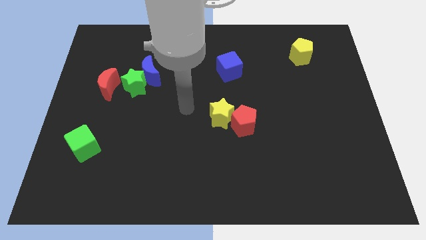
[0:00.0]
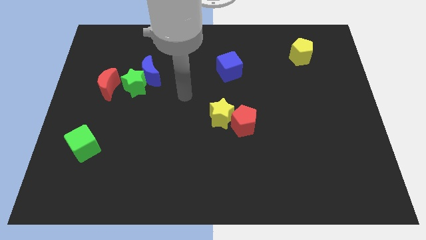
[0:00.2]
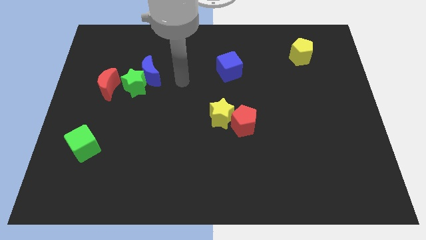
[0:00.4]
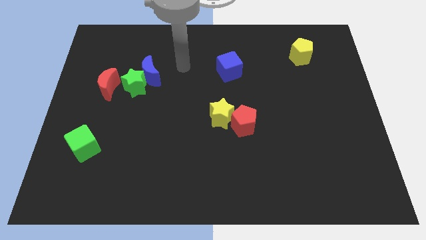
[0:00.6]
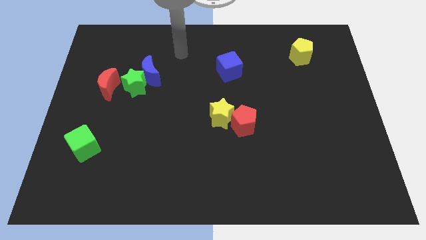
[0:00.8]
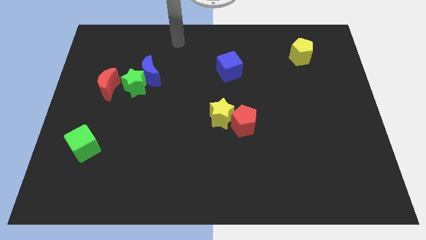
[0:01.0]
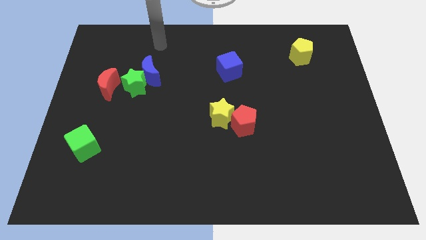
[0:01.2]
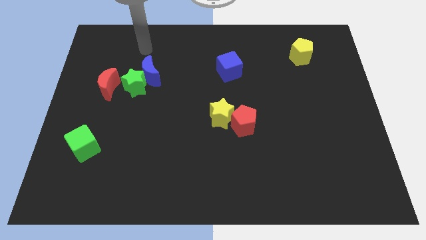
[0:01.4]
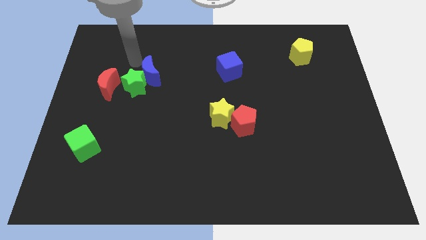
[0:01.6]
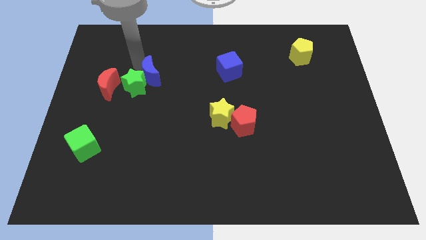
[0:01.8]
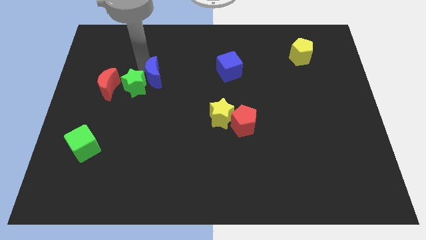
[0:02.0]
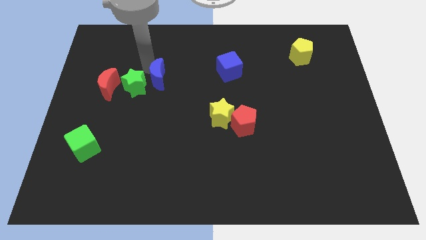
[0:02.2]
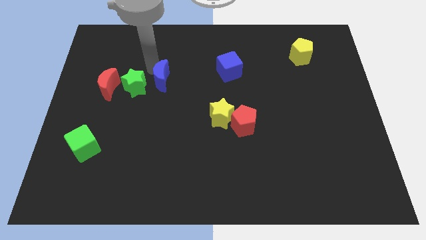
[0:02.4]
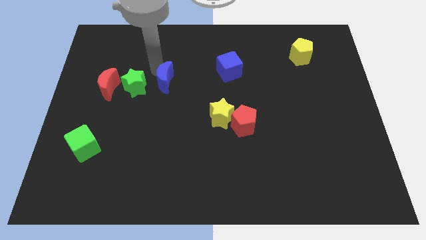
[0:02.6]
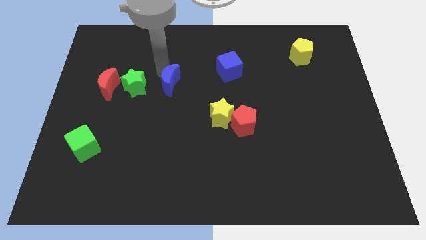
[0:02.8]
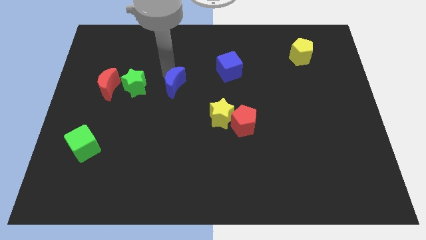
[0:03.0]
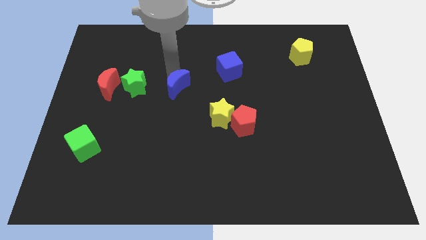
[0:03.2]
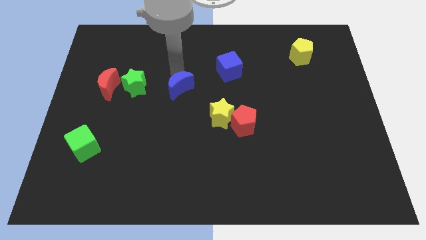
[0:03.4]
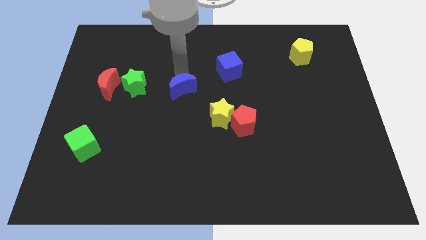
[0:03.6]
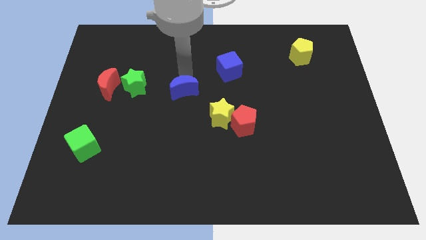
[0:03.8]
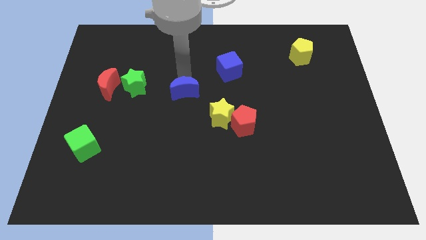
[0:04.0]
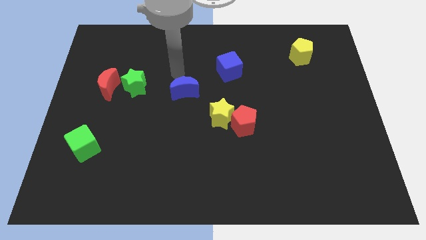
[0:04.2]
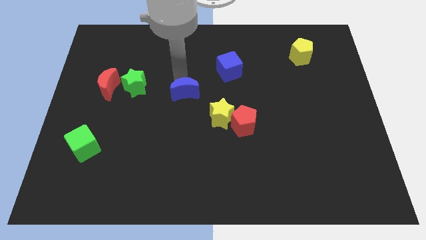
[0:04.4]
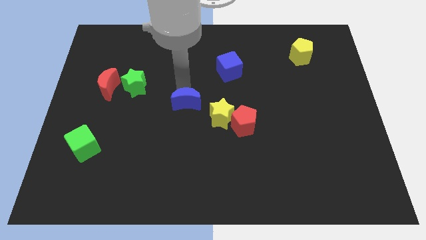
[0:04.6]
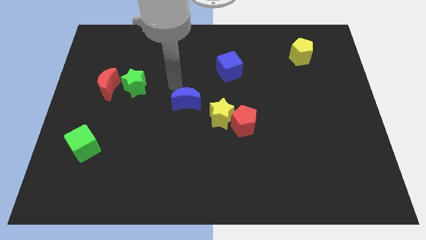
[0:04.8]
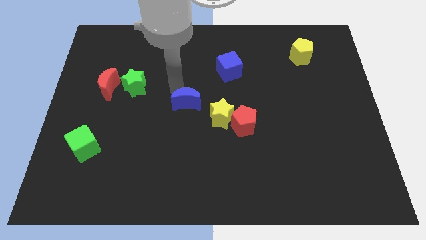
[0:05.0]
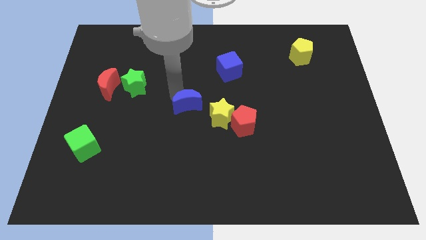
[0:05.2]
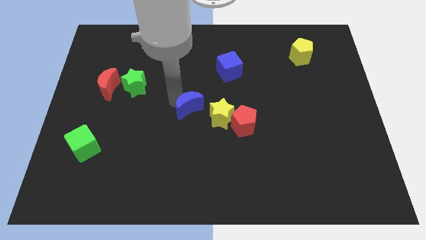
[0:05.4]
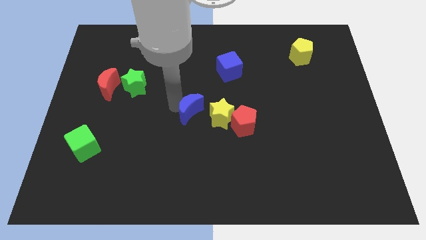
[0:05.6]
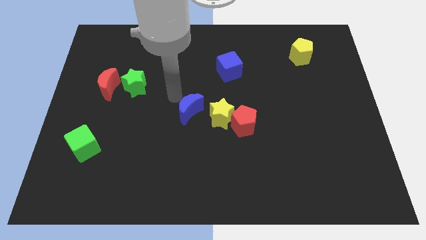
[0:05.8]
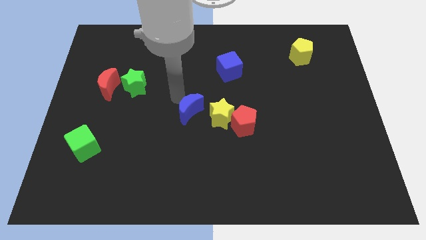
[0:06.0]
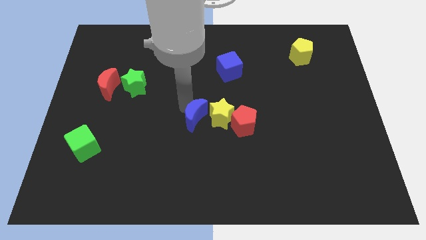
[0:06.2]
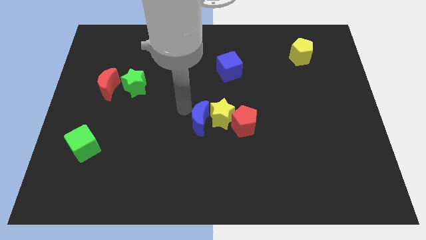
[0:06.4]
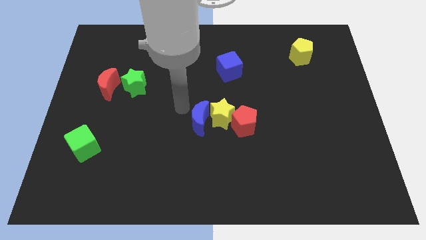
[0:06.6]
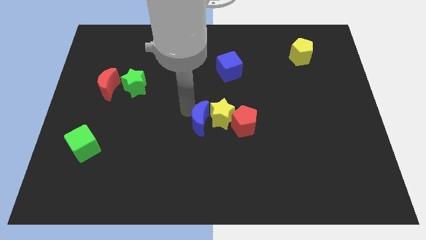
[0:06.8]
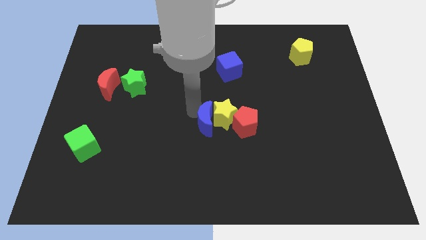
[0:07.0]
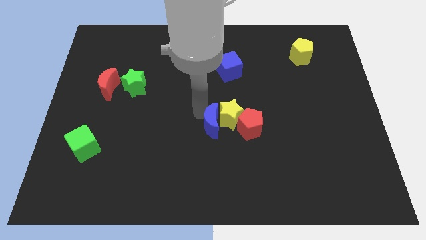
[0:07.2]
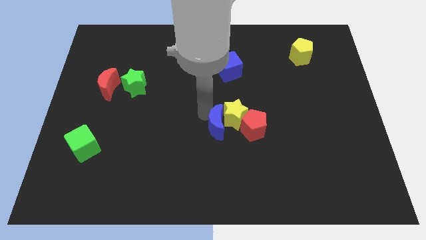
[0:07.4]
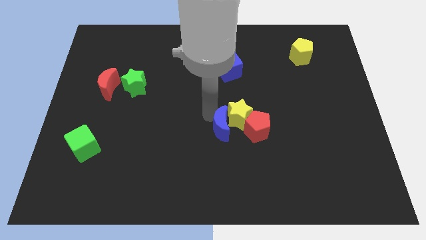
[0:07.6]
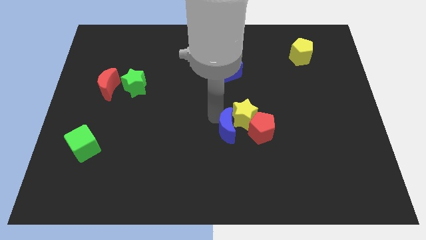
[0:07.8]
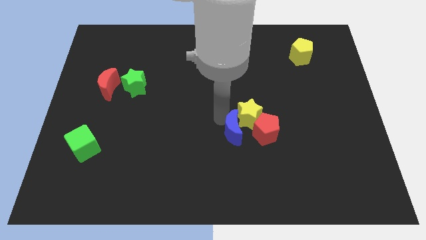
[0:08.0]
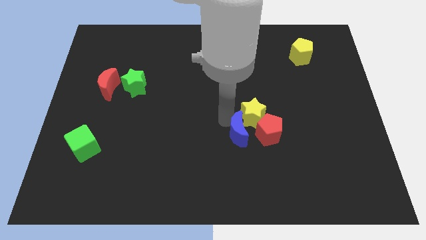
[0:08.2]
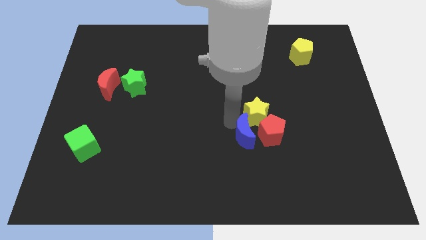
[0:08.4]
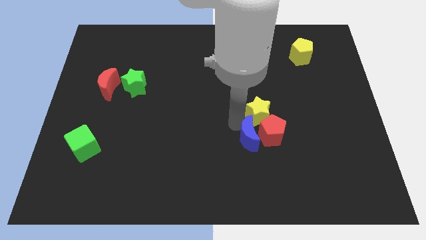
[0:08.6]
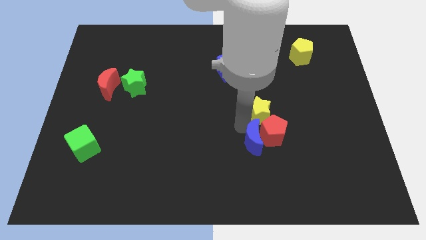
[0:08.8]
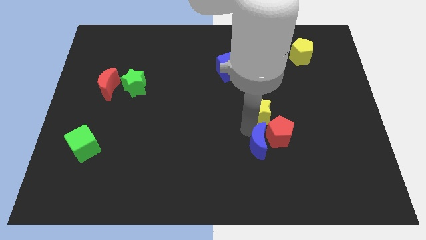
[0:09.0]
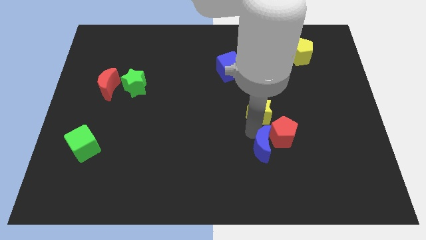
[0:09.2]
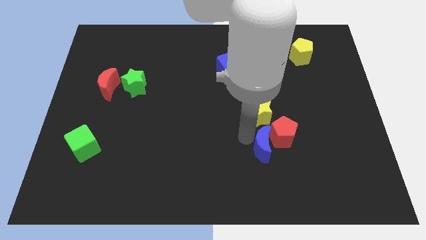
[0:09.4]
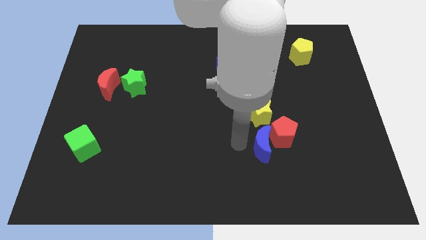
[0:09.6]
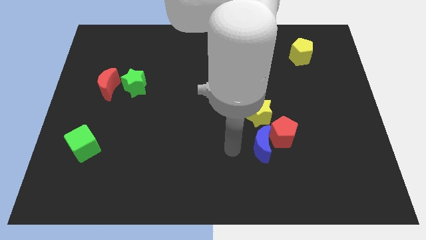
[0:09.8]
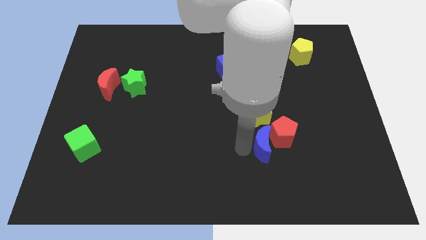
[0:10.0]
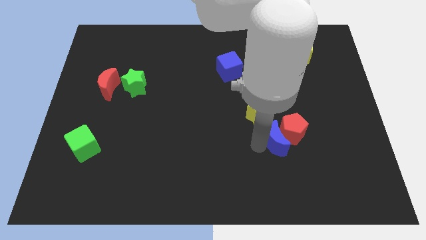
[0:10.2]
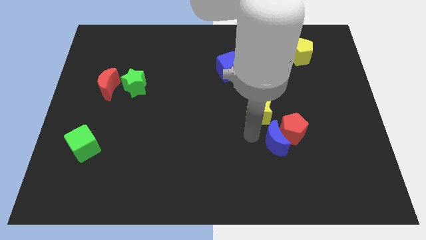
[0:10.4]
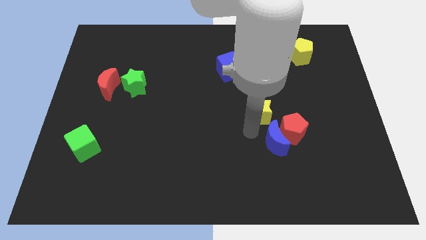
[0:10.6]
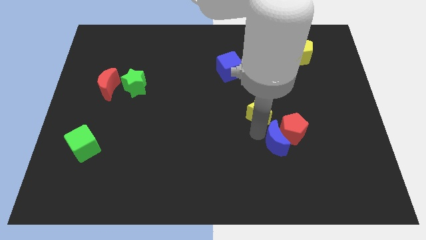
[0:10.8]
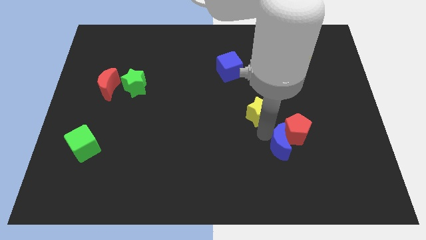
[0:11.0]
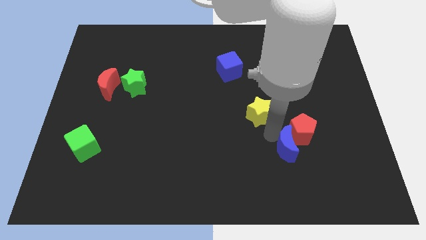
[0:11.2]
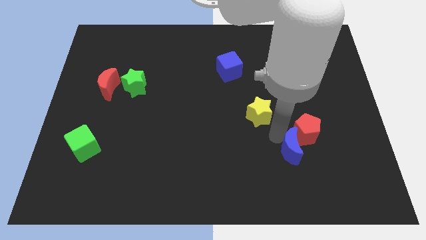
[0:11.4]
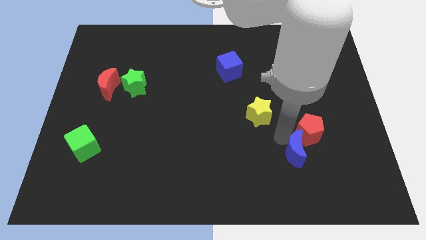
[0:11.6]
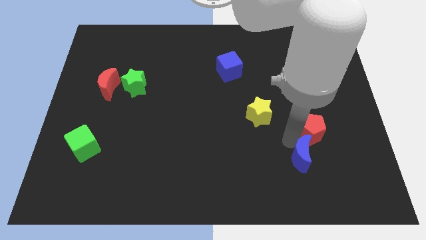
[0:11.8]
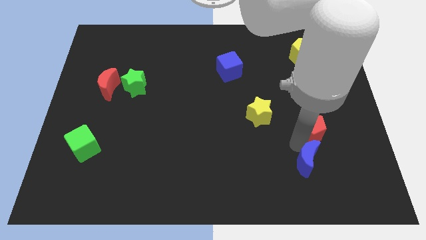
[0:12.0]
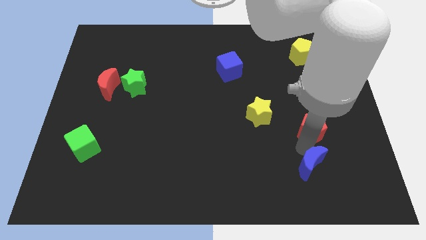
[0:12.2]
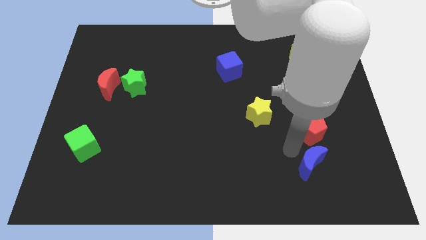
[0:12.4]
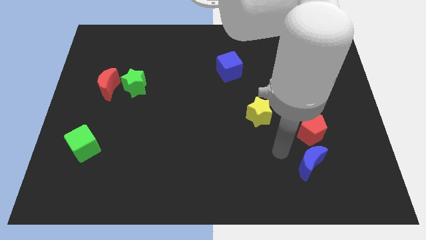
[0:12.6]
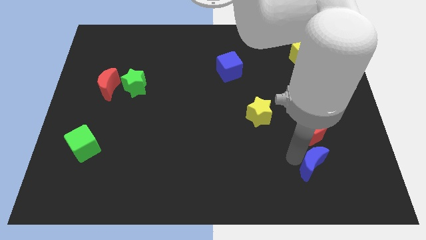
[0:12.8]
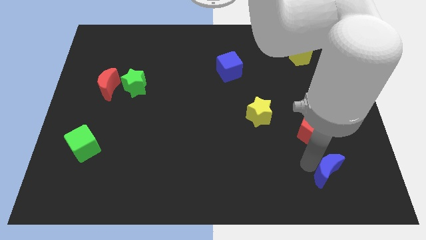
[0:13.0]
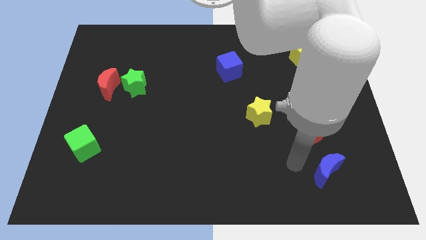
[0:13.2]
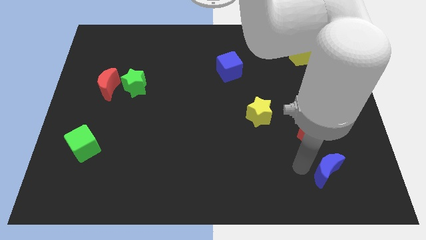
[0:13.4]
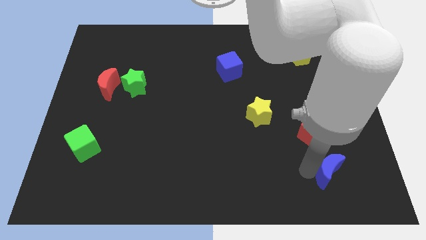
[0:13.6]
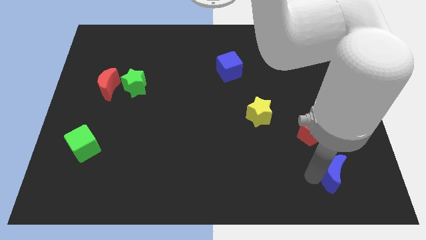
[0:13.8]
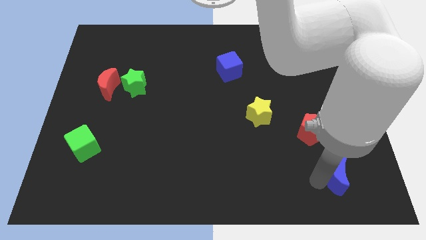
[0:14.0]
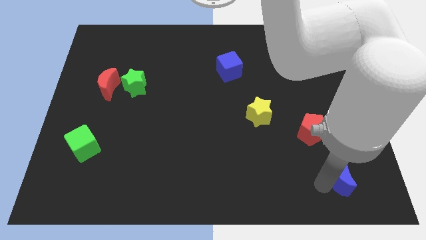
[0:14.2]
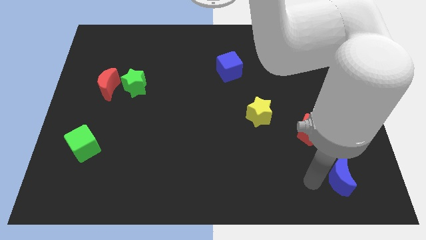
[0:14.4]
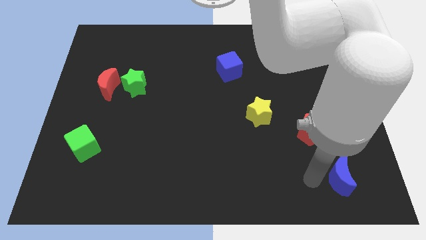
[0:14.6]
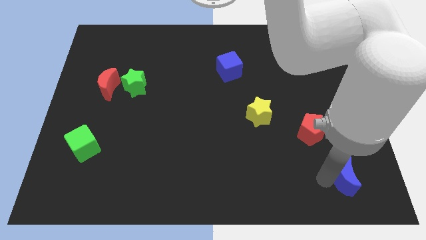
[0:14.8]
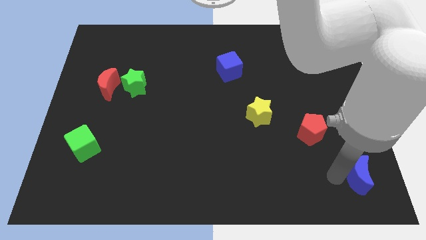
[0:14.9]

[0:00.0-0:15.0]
push the blue moon to the lower right corner
